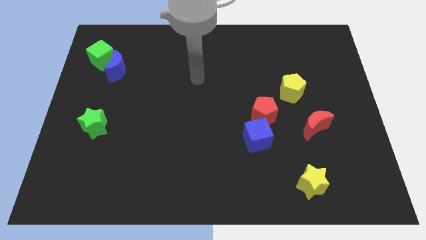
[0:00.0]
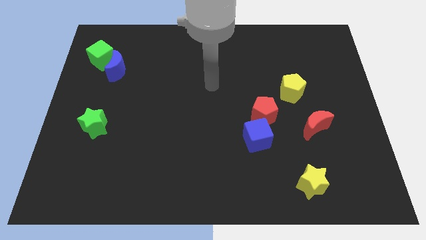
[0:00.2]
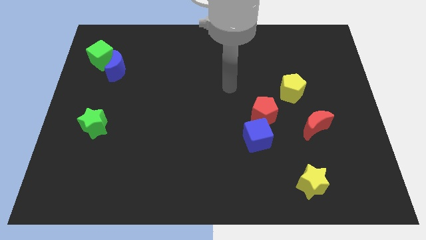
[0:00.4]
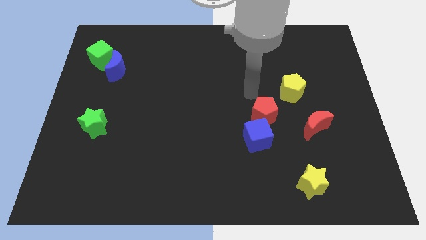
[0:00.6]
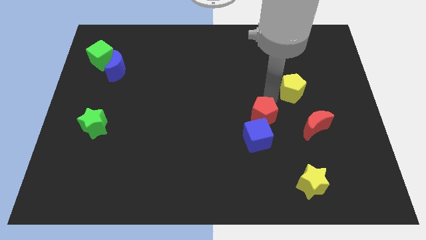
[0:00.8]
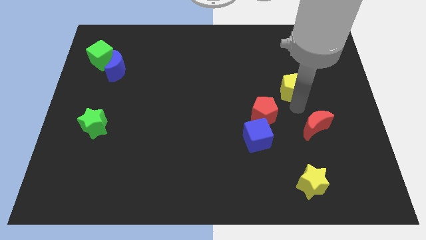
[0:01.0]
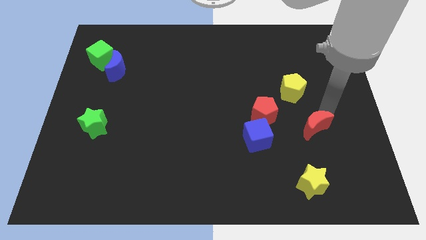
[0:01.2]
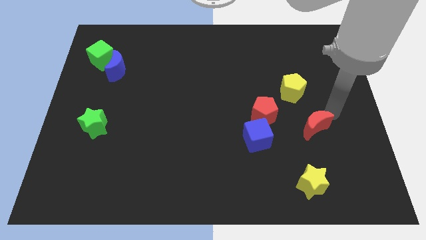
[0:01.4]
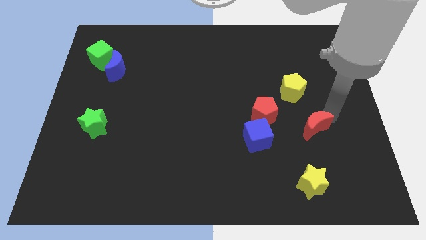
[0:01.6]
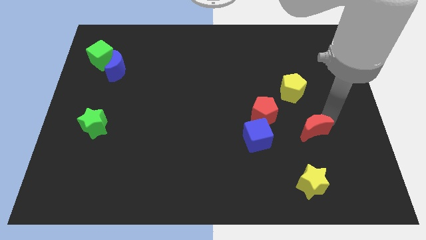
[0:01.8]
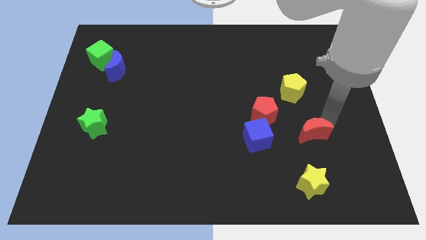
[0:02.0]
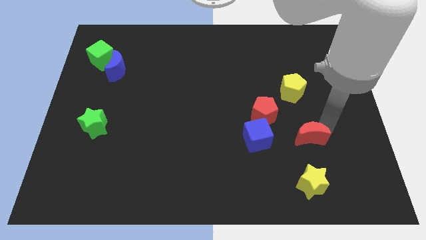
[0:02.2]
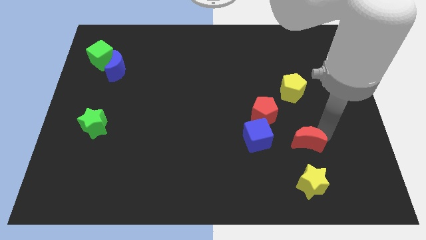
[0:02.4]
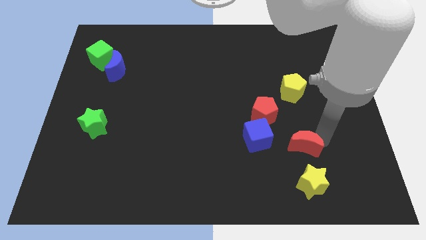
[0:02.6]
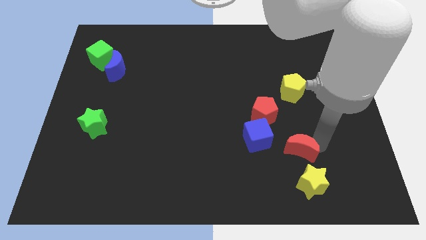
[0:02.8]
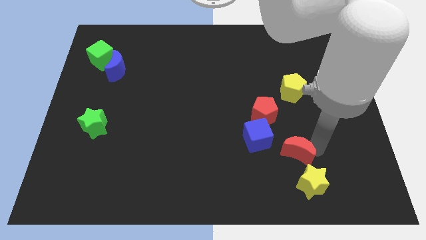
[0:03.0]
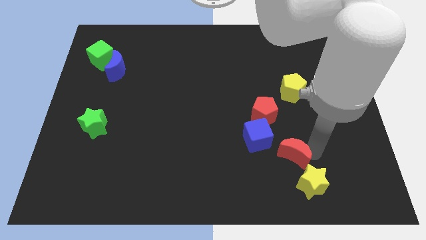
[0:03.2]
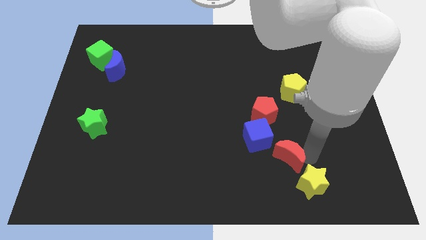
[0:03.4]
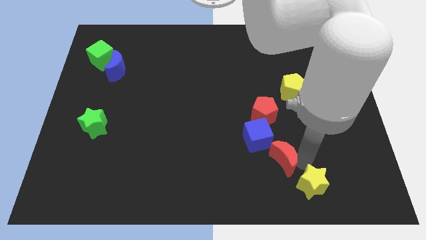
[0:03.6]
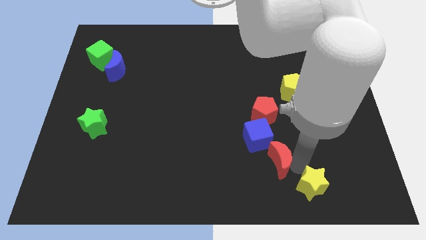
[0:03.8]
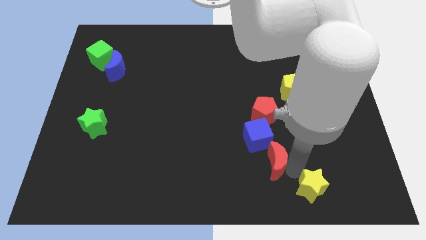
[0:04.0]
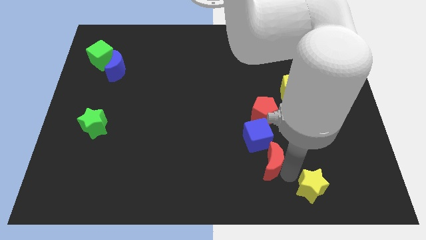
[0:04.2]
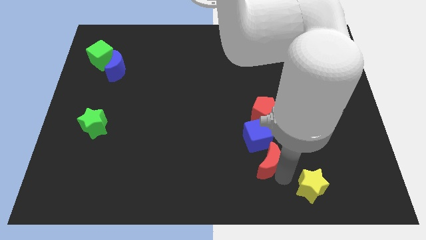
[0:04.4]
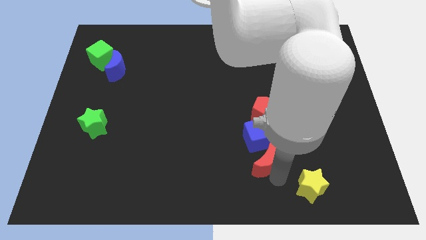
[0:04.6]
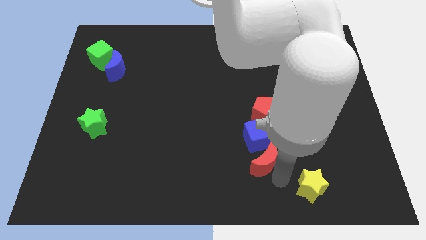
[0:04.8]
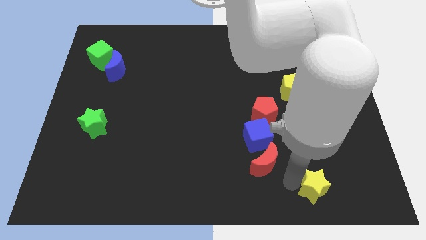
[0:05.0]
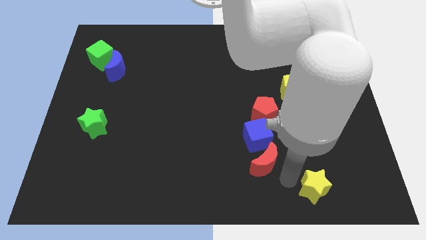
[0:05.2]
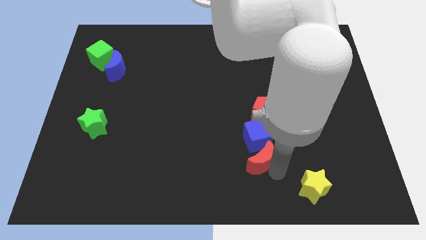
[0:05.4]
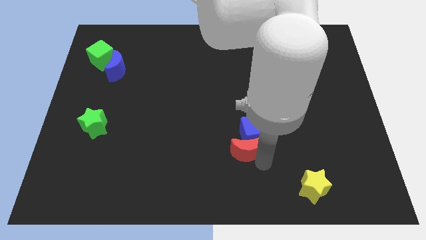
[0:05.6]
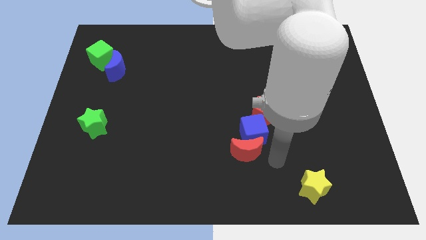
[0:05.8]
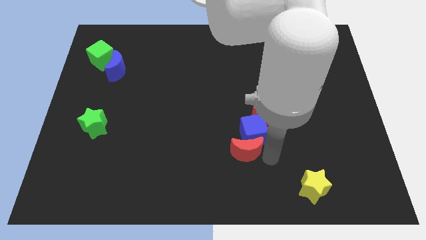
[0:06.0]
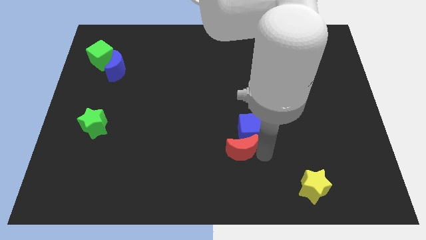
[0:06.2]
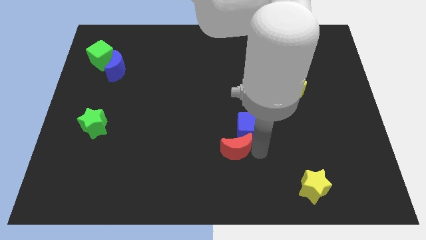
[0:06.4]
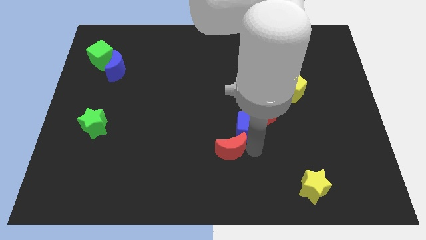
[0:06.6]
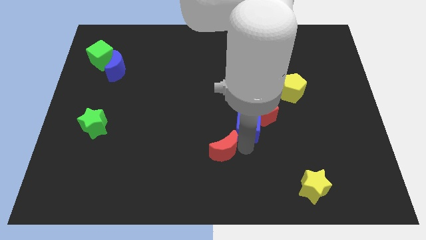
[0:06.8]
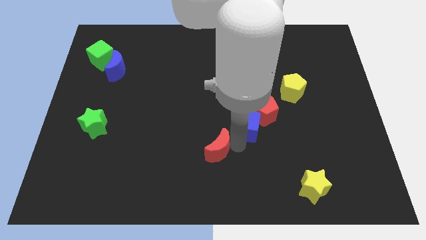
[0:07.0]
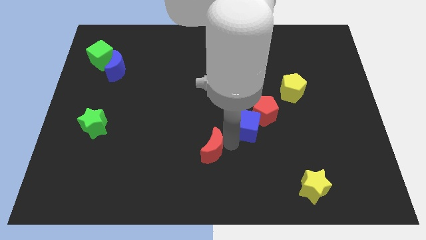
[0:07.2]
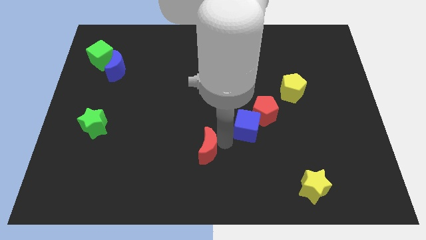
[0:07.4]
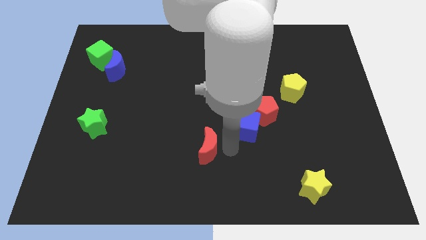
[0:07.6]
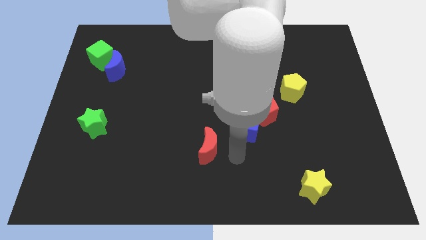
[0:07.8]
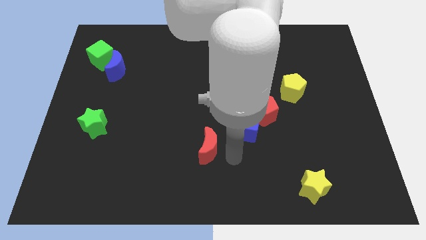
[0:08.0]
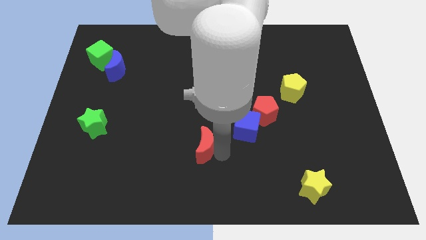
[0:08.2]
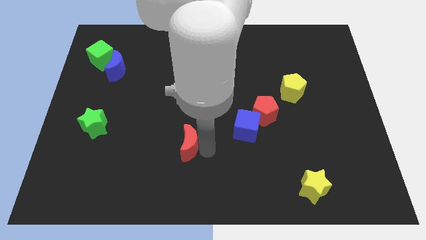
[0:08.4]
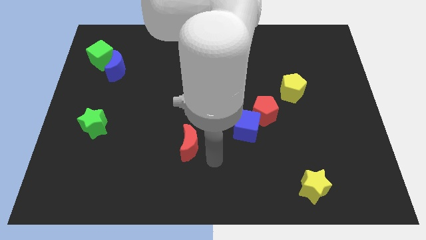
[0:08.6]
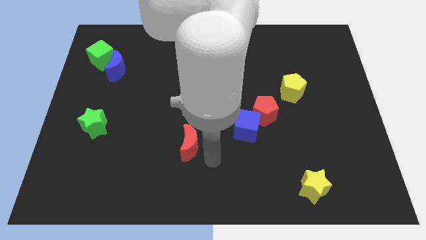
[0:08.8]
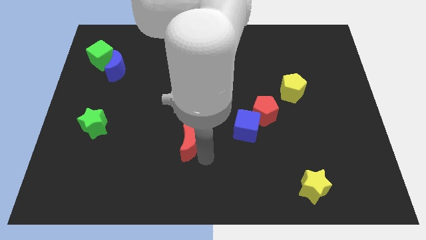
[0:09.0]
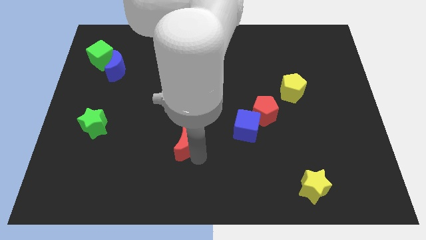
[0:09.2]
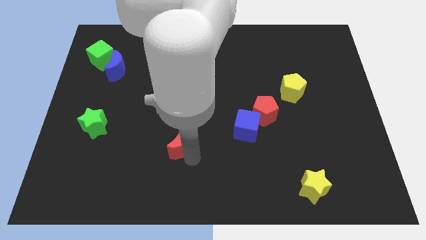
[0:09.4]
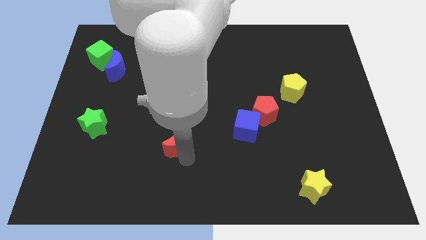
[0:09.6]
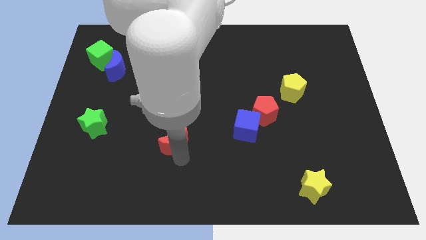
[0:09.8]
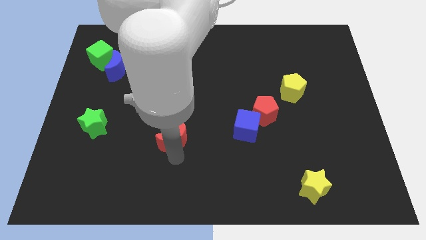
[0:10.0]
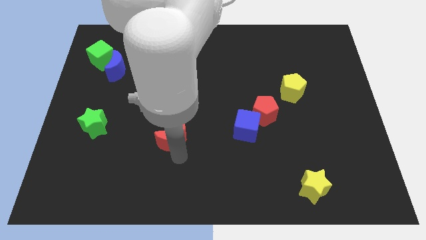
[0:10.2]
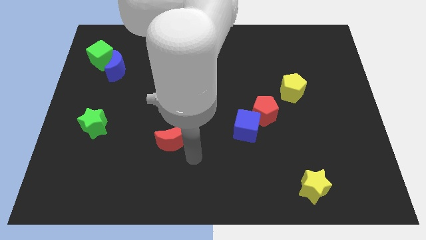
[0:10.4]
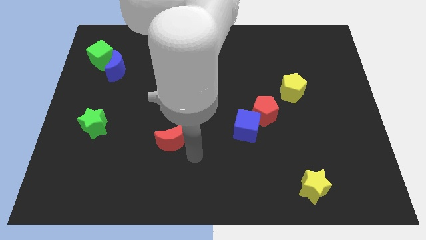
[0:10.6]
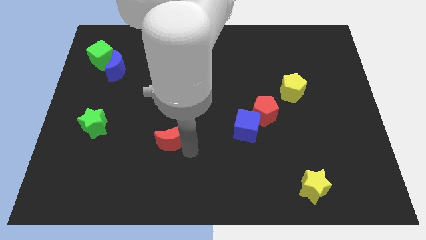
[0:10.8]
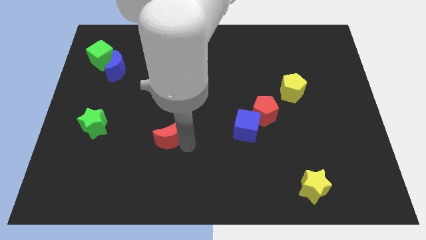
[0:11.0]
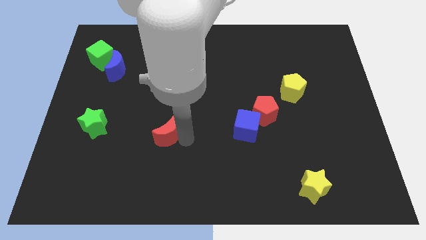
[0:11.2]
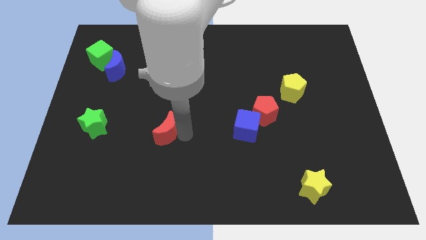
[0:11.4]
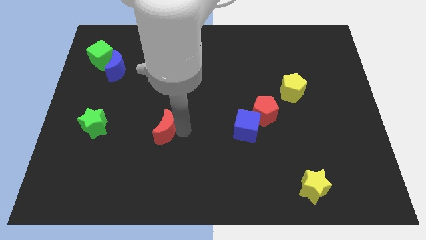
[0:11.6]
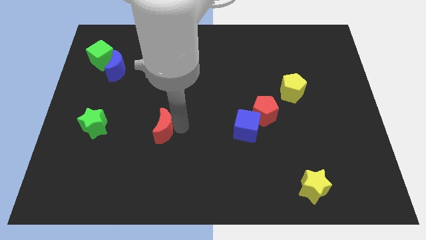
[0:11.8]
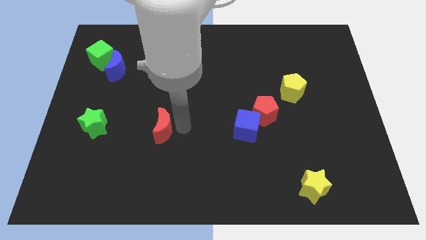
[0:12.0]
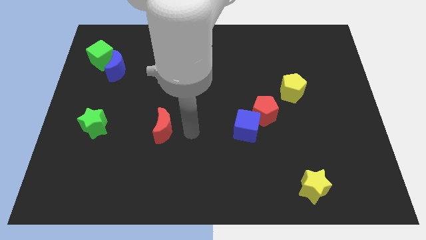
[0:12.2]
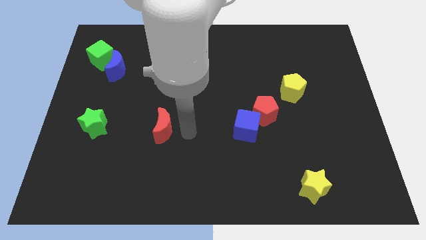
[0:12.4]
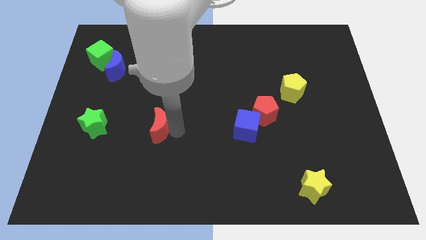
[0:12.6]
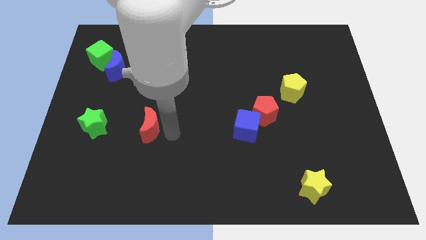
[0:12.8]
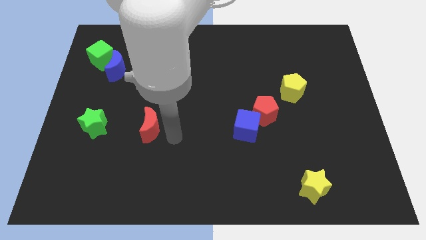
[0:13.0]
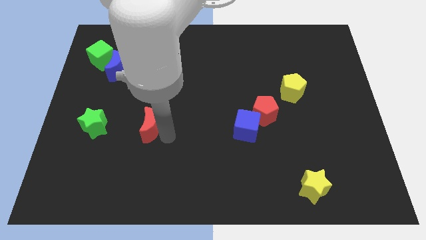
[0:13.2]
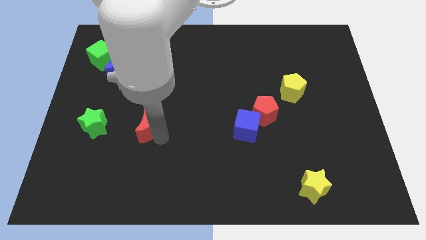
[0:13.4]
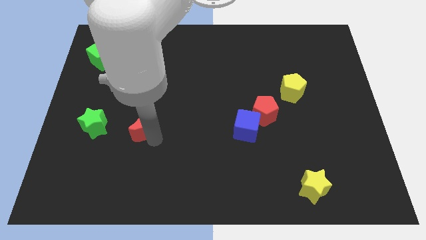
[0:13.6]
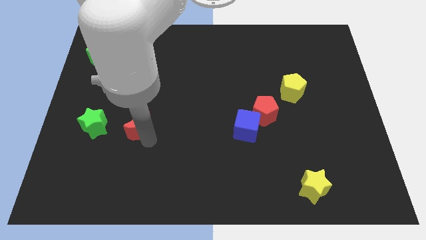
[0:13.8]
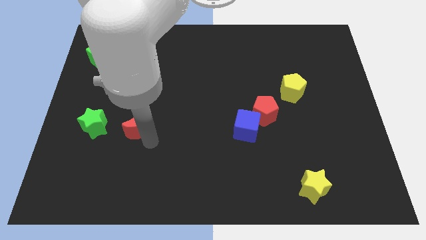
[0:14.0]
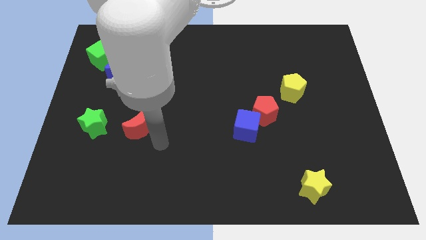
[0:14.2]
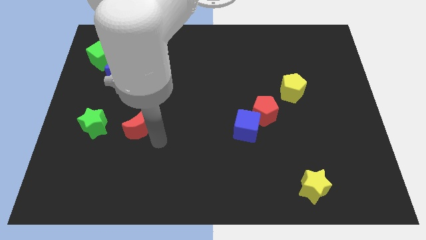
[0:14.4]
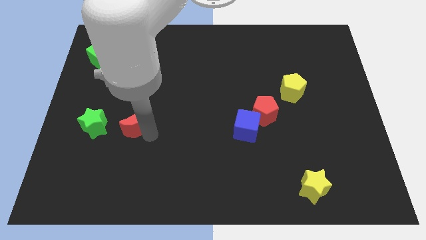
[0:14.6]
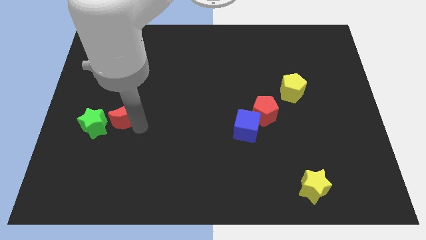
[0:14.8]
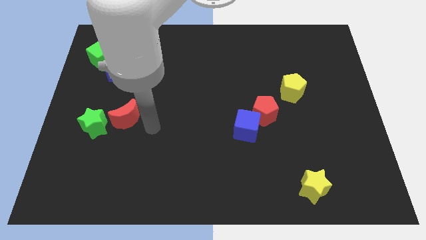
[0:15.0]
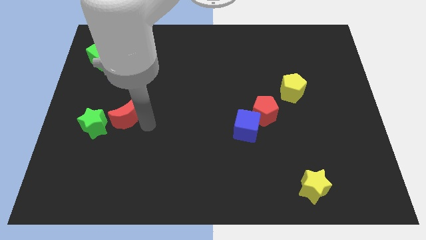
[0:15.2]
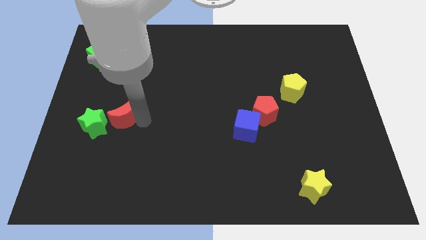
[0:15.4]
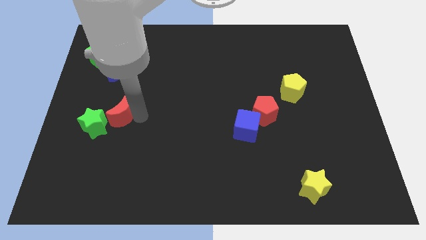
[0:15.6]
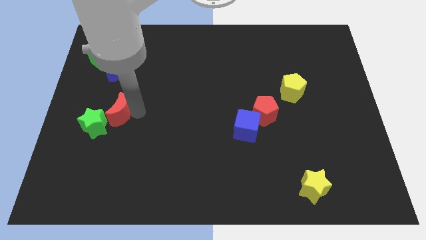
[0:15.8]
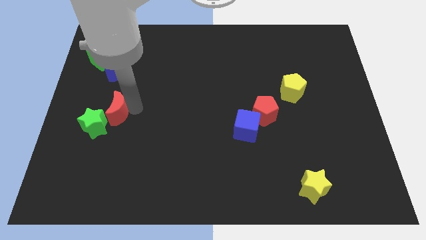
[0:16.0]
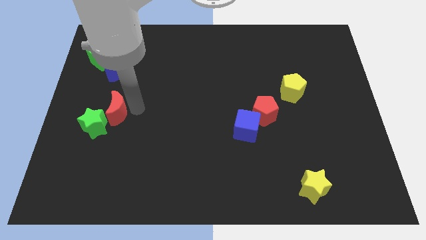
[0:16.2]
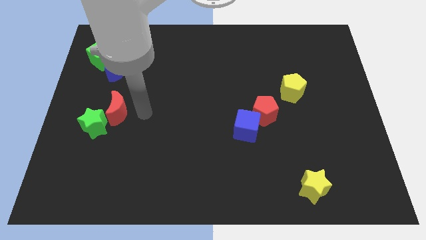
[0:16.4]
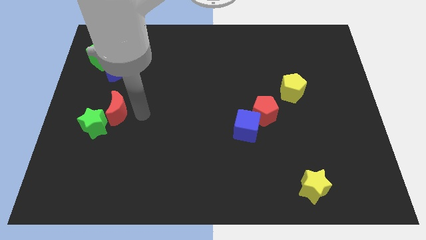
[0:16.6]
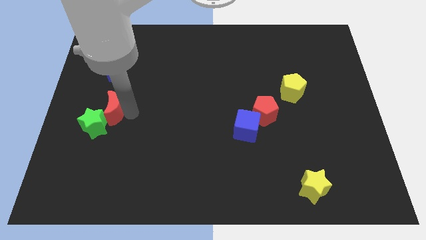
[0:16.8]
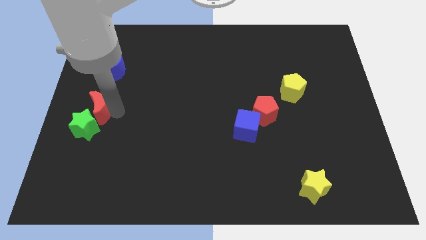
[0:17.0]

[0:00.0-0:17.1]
slide the red moon to the left side of the board
